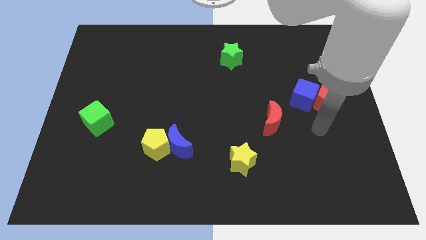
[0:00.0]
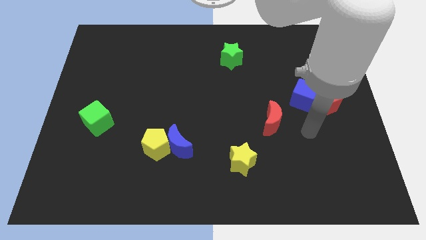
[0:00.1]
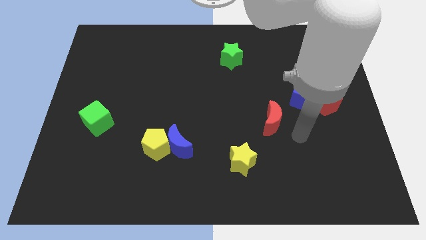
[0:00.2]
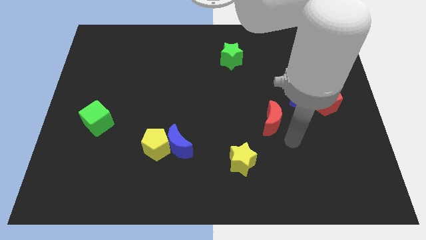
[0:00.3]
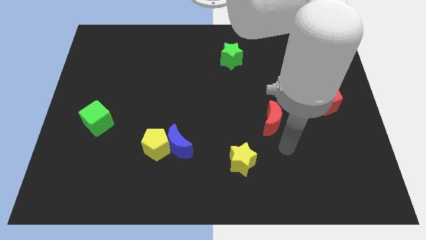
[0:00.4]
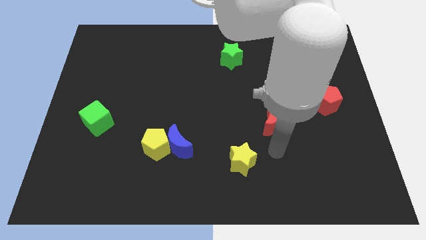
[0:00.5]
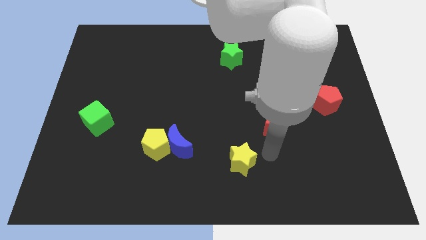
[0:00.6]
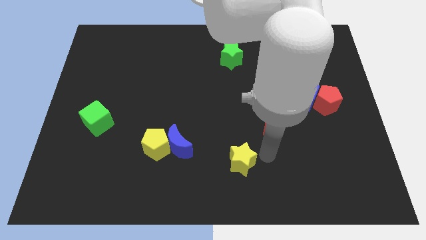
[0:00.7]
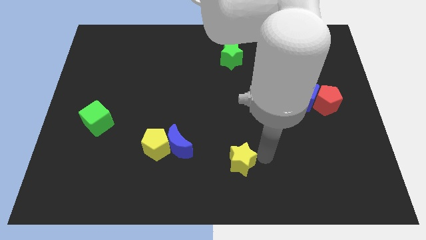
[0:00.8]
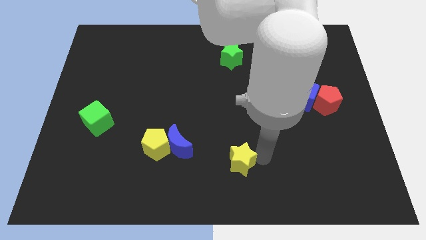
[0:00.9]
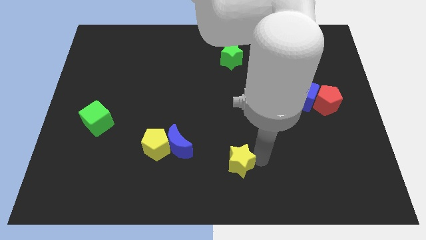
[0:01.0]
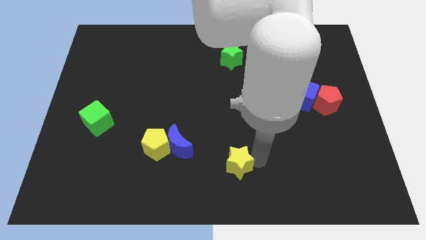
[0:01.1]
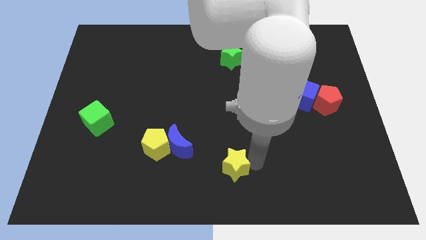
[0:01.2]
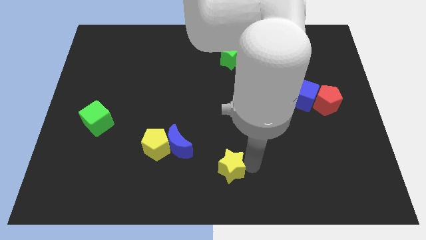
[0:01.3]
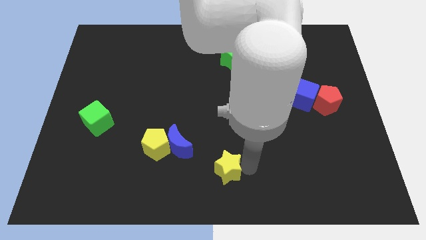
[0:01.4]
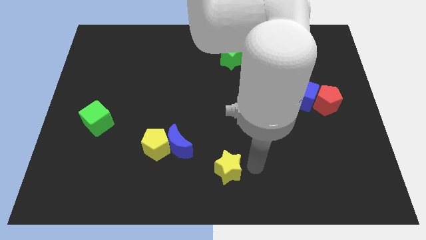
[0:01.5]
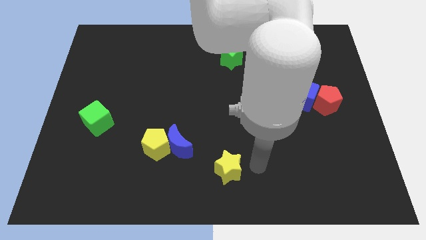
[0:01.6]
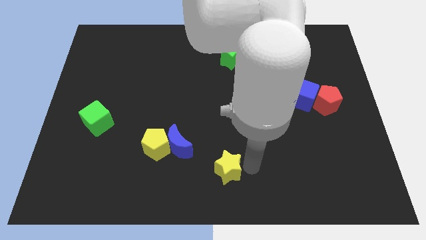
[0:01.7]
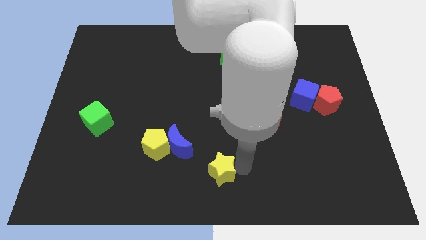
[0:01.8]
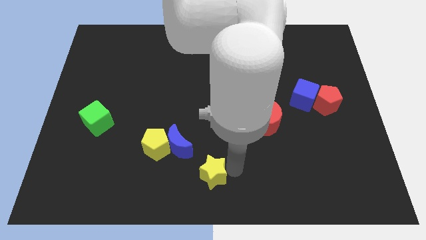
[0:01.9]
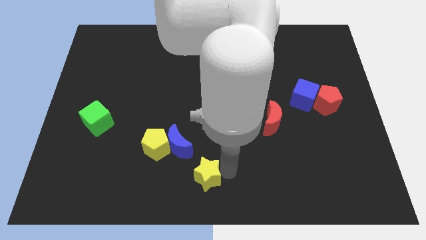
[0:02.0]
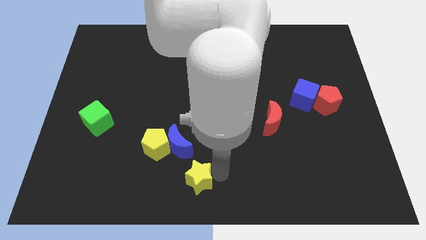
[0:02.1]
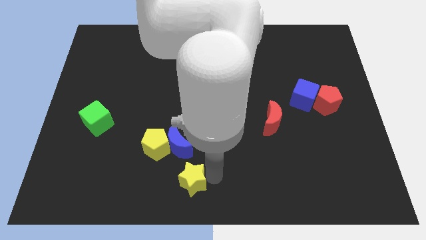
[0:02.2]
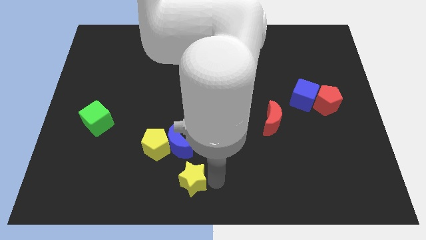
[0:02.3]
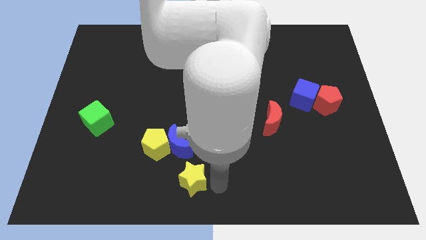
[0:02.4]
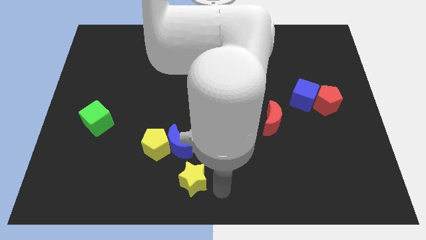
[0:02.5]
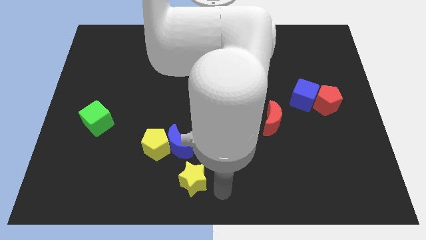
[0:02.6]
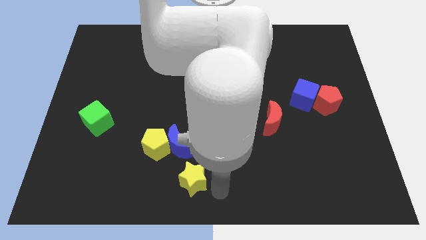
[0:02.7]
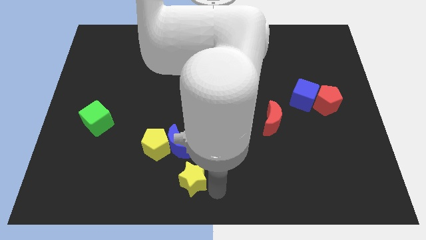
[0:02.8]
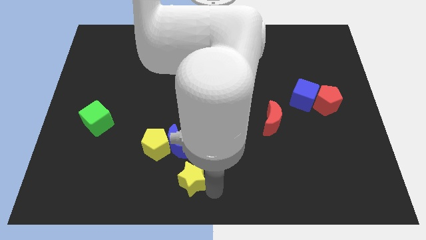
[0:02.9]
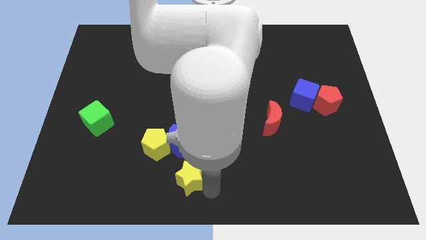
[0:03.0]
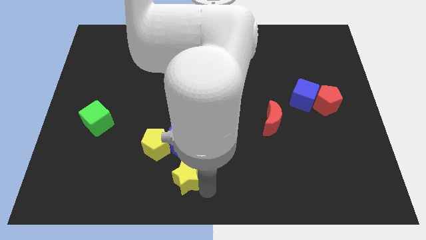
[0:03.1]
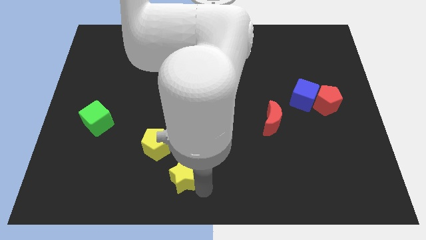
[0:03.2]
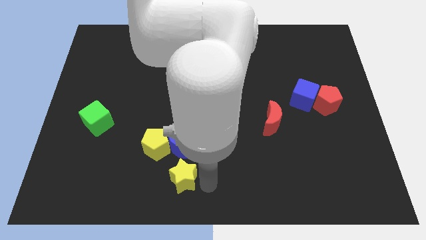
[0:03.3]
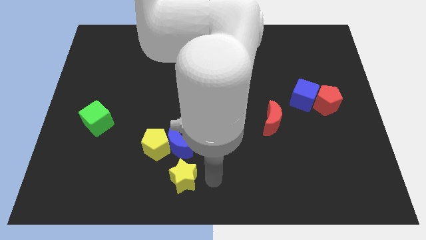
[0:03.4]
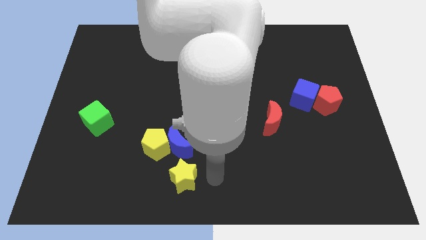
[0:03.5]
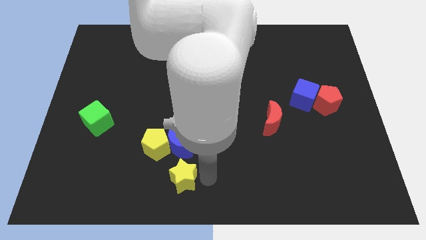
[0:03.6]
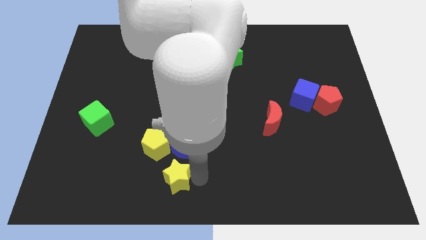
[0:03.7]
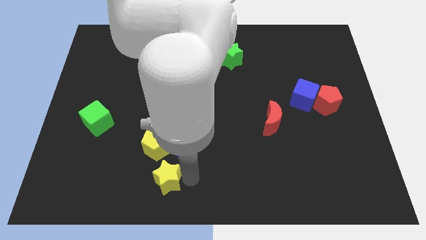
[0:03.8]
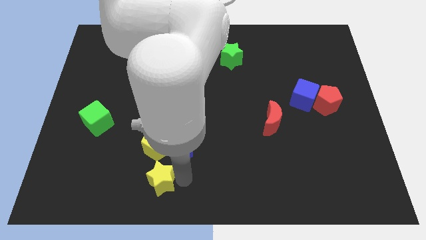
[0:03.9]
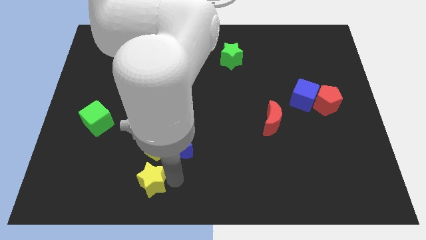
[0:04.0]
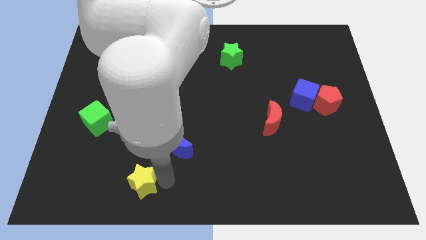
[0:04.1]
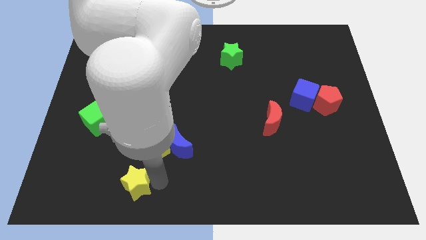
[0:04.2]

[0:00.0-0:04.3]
move the yellow star to the left

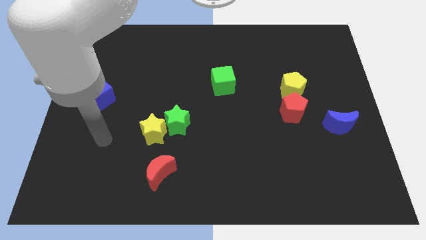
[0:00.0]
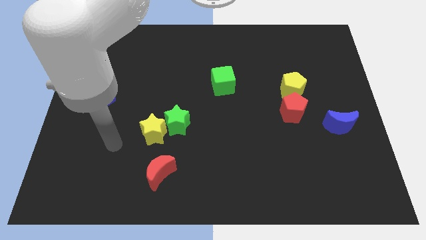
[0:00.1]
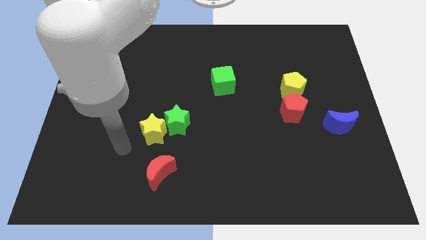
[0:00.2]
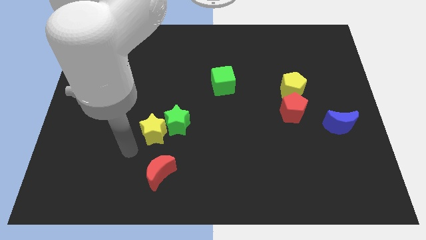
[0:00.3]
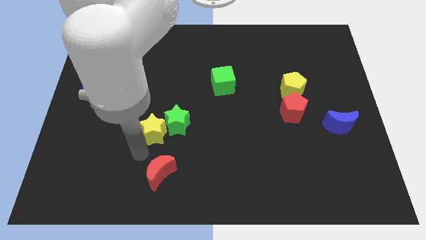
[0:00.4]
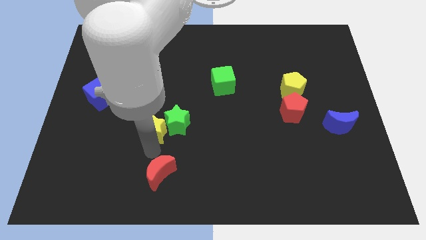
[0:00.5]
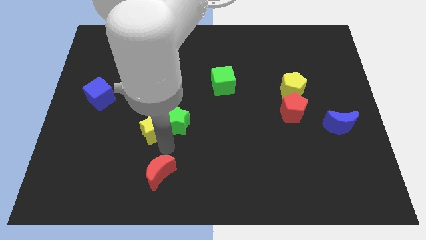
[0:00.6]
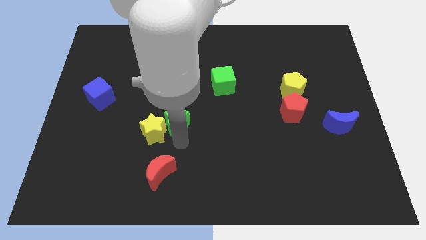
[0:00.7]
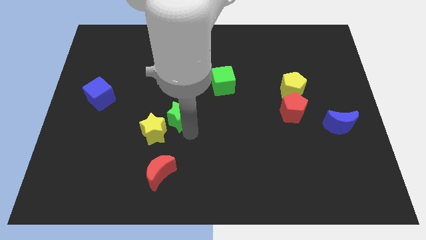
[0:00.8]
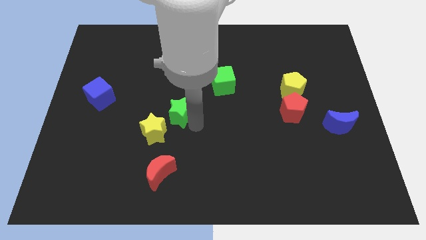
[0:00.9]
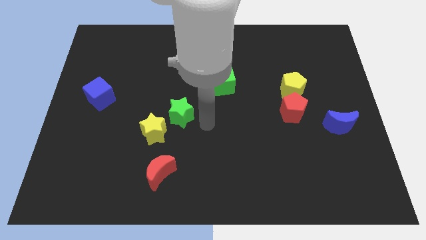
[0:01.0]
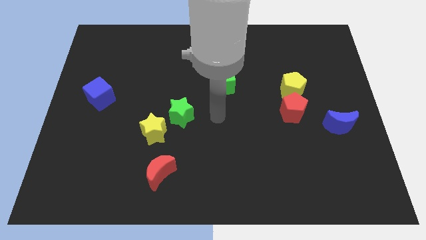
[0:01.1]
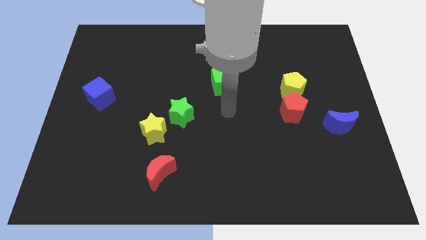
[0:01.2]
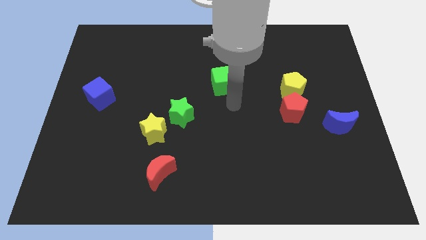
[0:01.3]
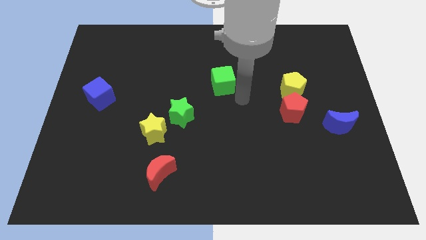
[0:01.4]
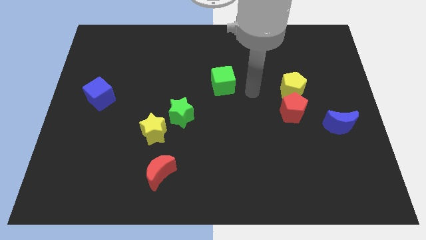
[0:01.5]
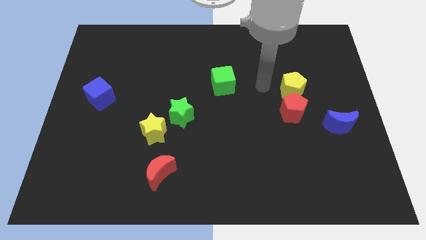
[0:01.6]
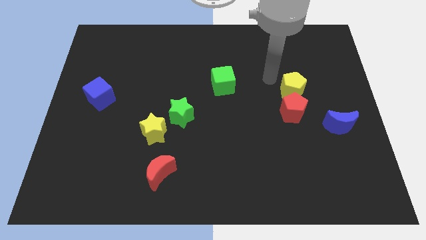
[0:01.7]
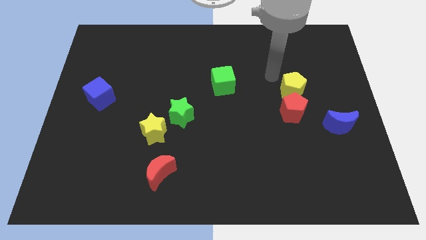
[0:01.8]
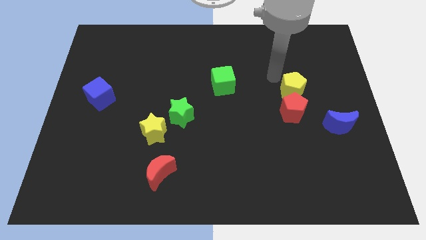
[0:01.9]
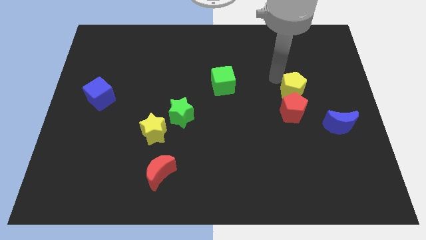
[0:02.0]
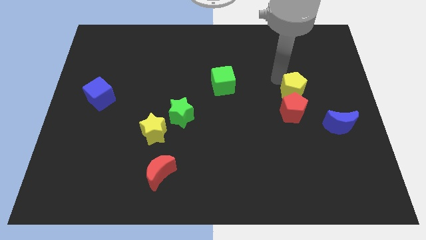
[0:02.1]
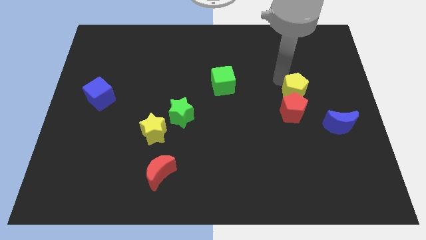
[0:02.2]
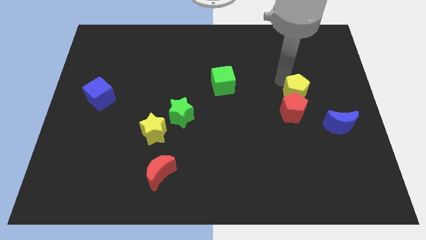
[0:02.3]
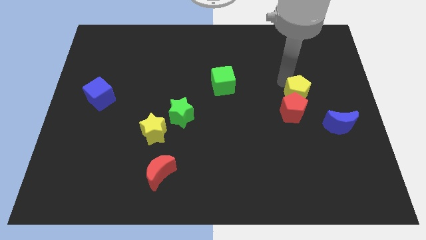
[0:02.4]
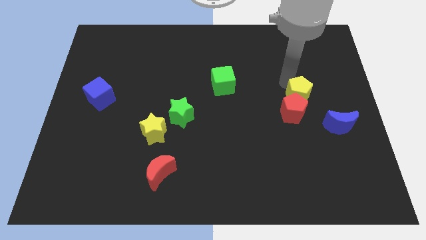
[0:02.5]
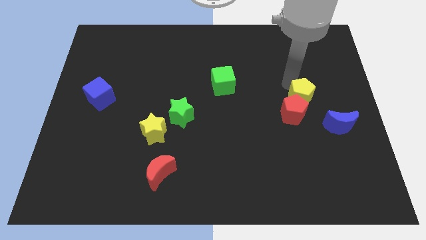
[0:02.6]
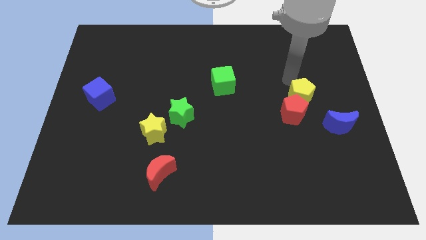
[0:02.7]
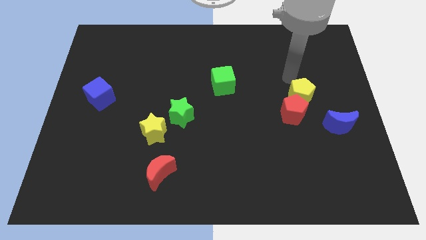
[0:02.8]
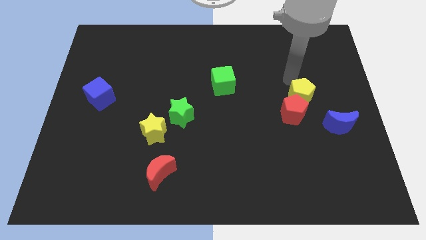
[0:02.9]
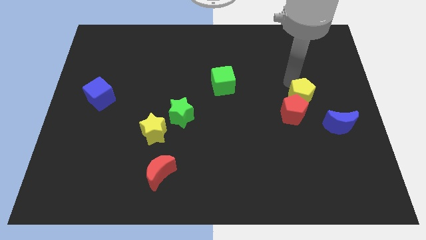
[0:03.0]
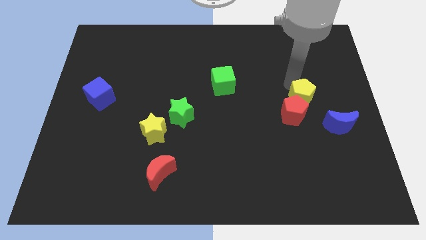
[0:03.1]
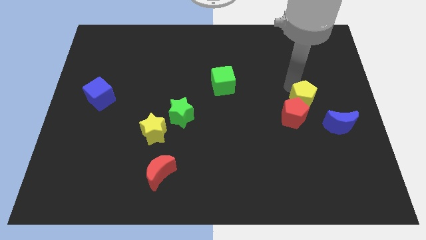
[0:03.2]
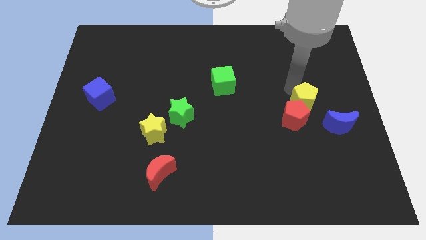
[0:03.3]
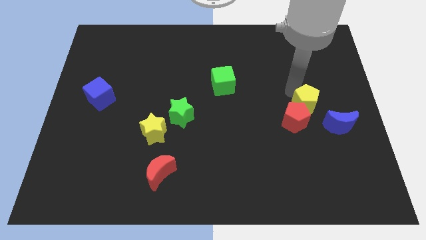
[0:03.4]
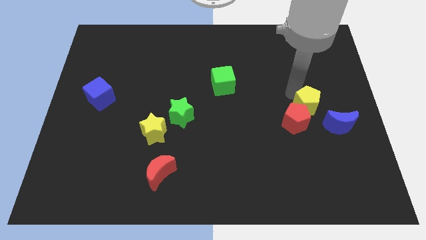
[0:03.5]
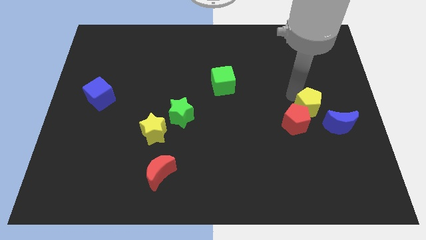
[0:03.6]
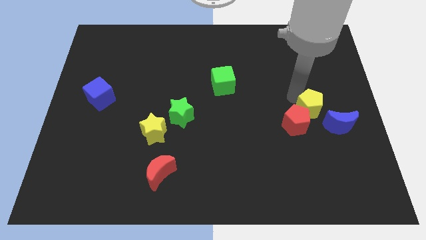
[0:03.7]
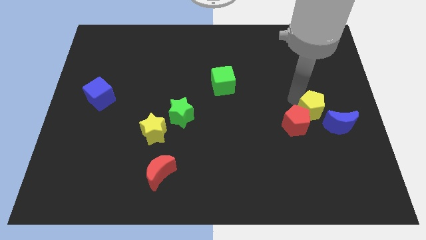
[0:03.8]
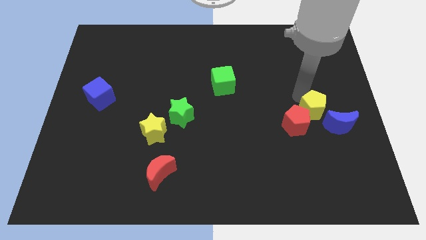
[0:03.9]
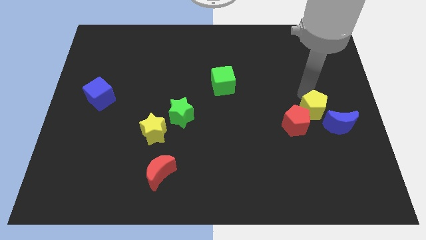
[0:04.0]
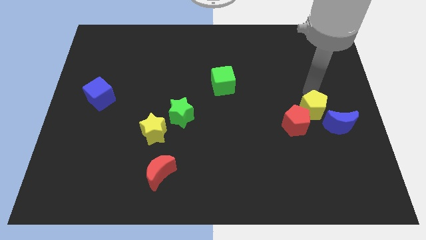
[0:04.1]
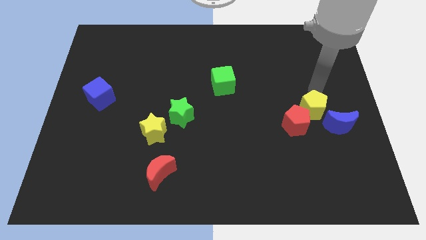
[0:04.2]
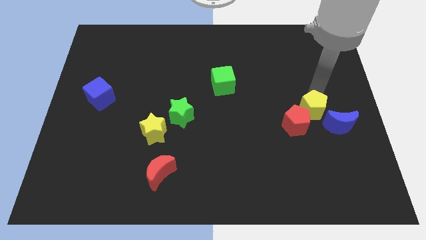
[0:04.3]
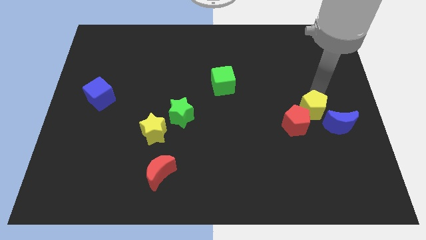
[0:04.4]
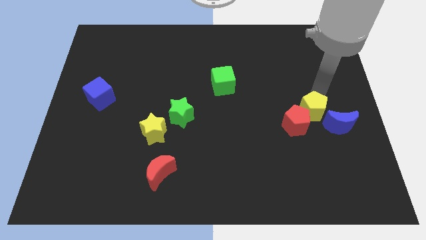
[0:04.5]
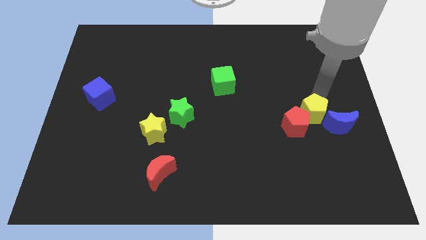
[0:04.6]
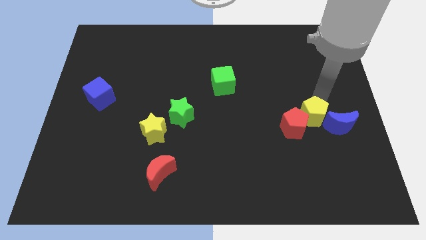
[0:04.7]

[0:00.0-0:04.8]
slide the yellow pentagon down a little bit
